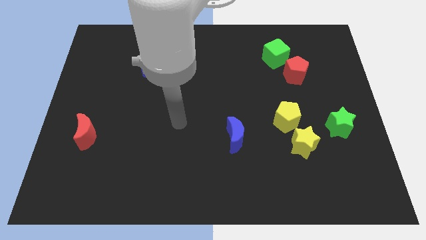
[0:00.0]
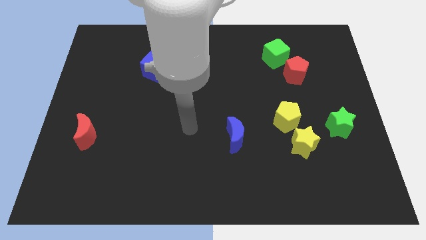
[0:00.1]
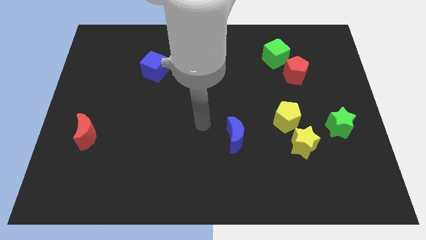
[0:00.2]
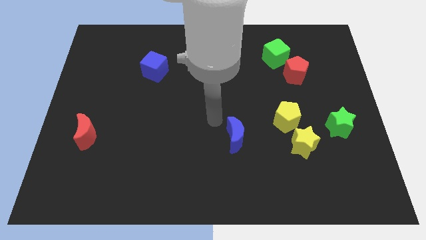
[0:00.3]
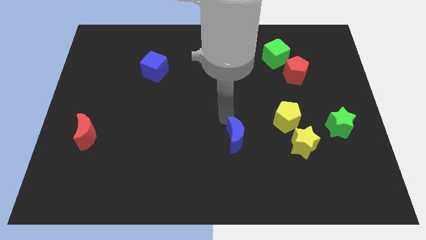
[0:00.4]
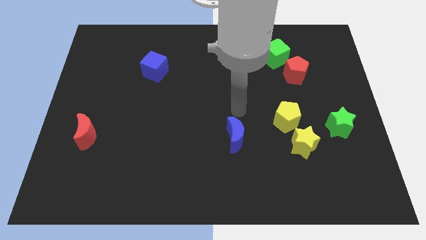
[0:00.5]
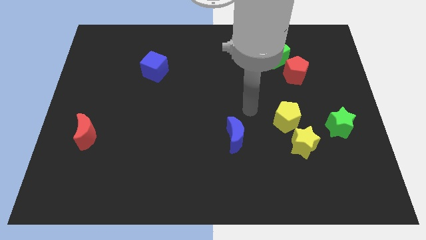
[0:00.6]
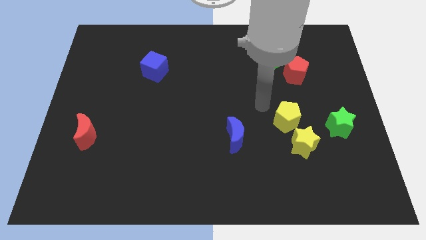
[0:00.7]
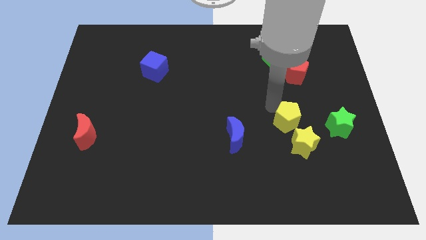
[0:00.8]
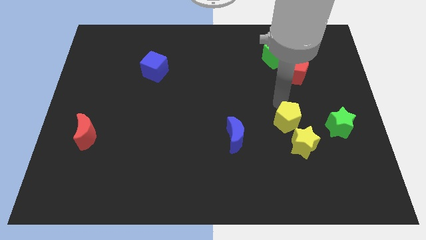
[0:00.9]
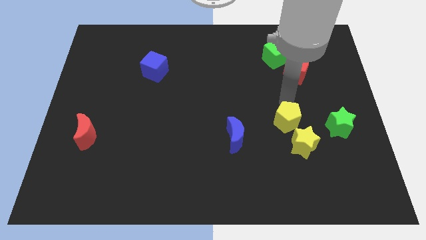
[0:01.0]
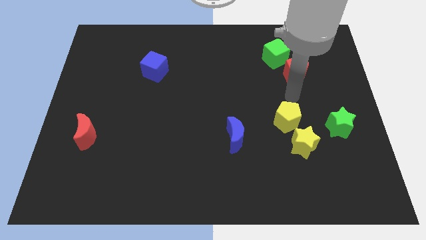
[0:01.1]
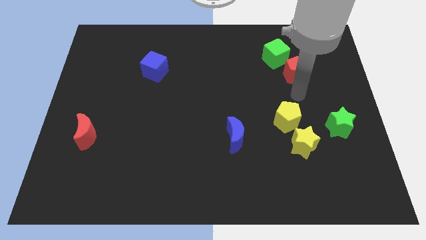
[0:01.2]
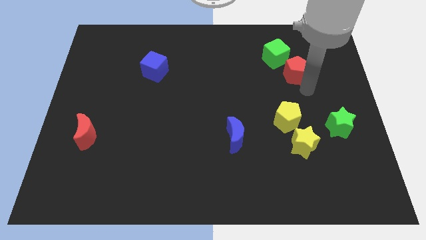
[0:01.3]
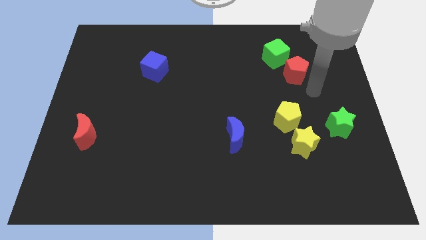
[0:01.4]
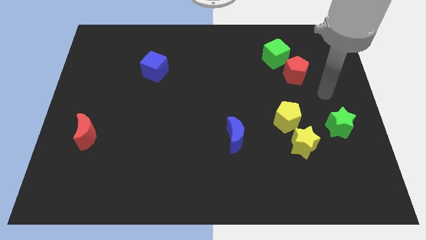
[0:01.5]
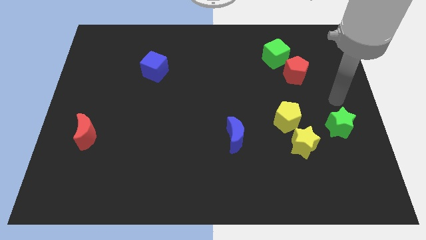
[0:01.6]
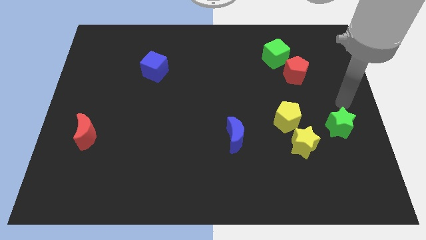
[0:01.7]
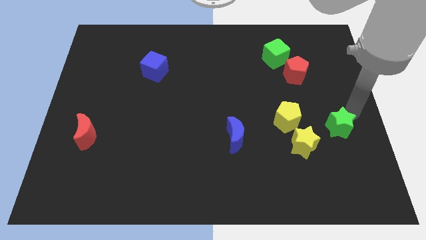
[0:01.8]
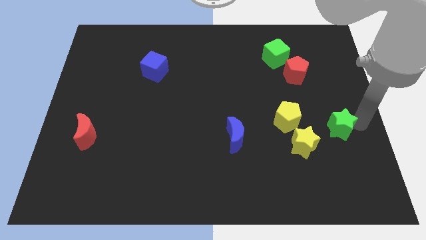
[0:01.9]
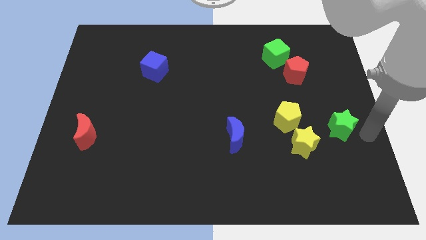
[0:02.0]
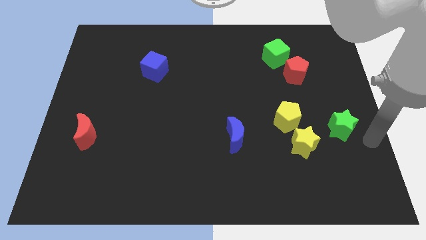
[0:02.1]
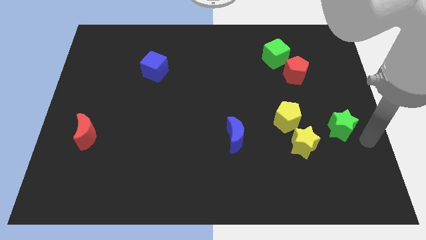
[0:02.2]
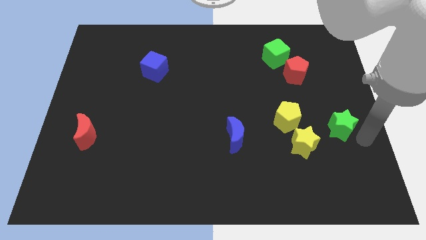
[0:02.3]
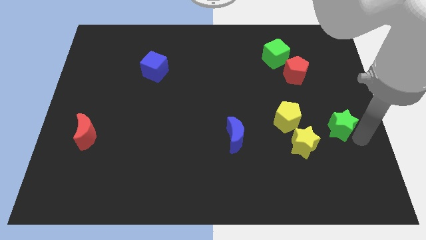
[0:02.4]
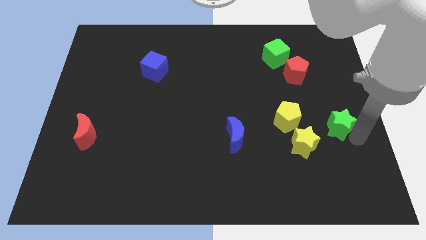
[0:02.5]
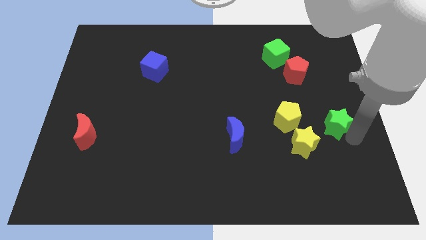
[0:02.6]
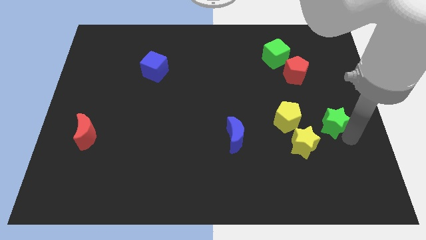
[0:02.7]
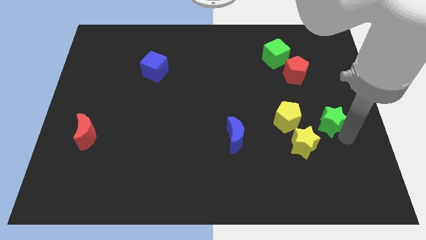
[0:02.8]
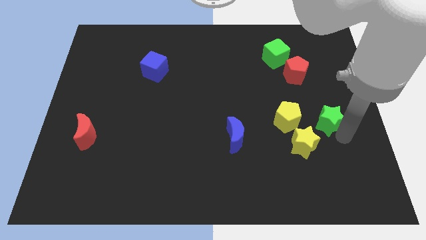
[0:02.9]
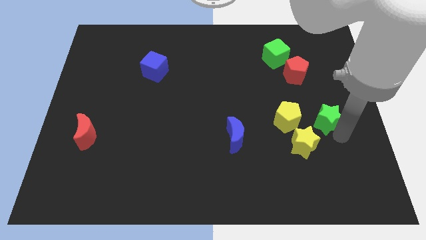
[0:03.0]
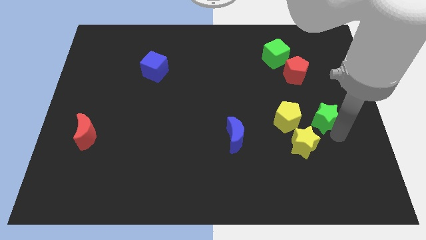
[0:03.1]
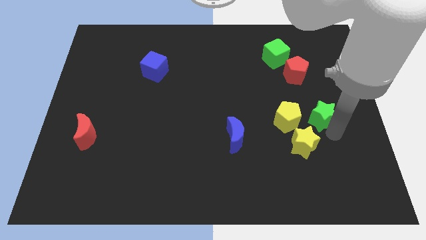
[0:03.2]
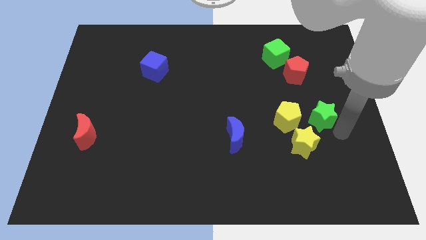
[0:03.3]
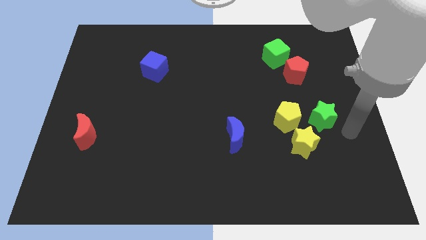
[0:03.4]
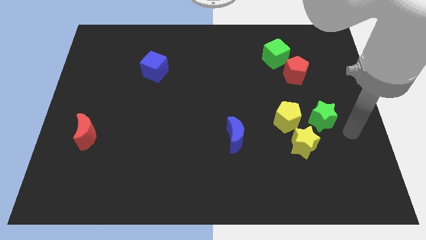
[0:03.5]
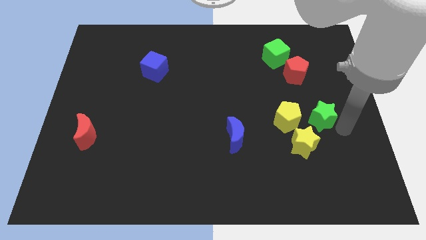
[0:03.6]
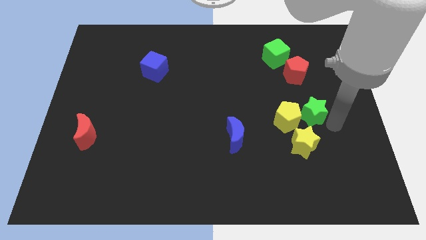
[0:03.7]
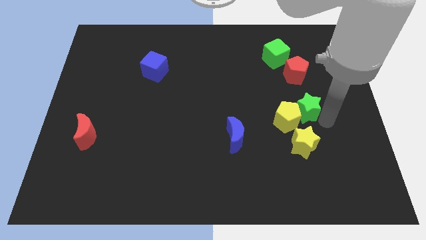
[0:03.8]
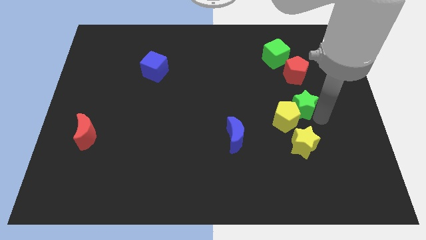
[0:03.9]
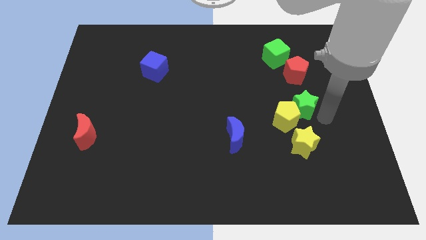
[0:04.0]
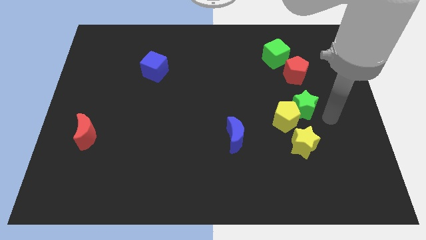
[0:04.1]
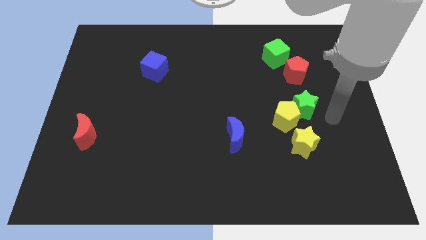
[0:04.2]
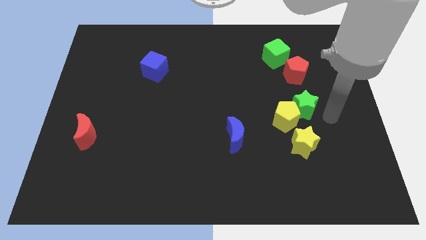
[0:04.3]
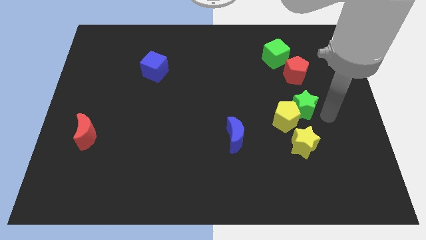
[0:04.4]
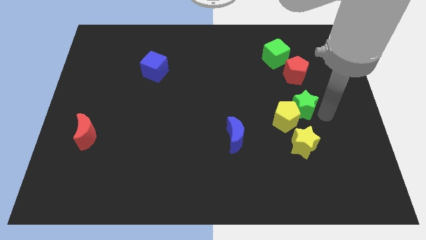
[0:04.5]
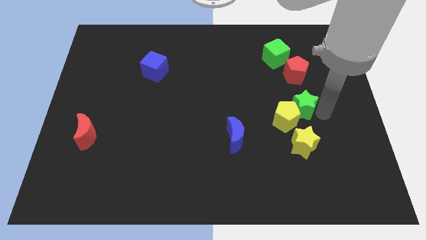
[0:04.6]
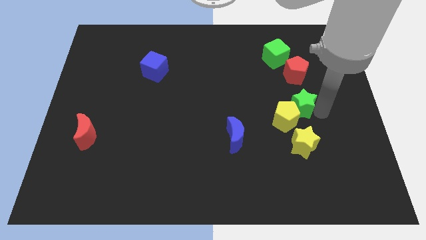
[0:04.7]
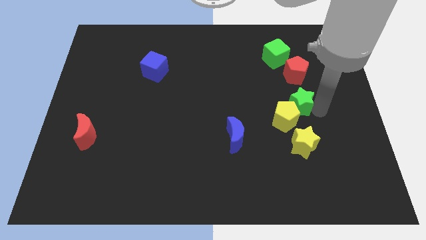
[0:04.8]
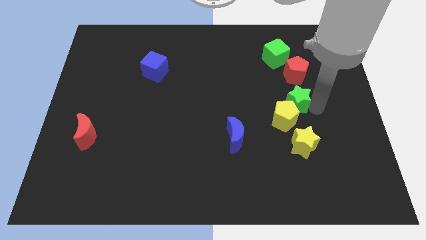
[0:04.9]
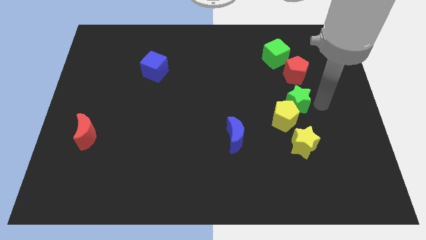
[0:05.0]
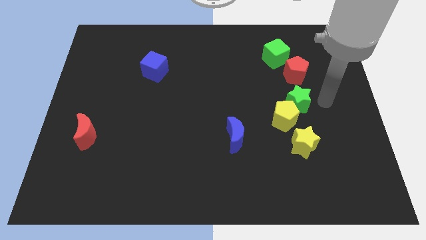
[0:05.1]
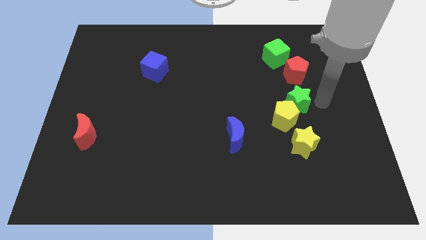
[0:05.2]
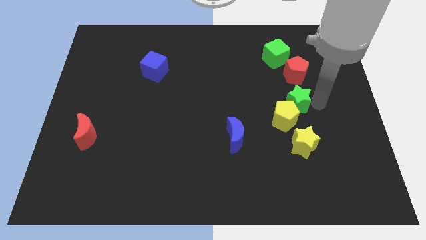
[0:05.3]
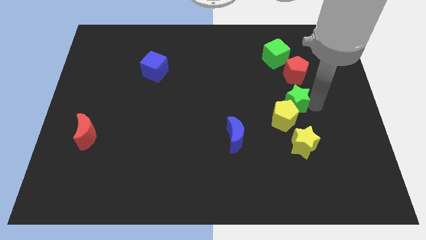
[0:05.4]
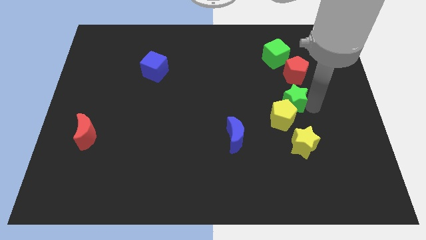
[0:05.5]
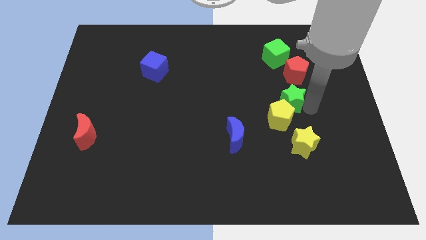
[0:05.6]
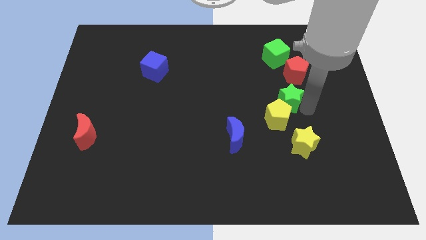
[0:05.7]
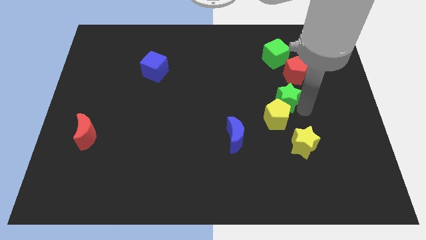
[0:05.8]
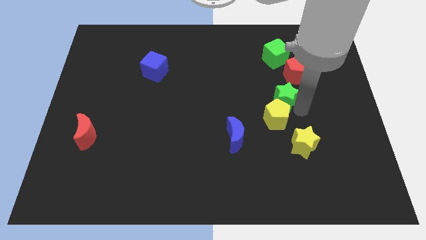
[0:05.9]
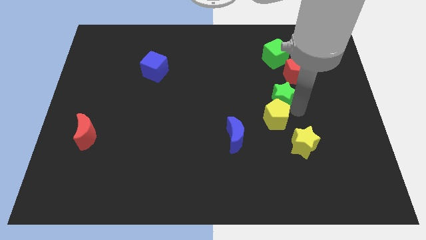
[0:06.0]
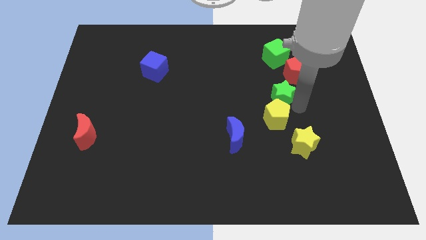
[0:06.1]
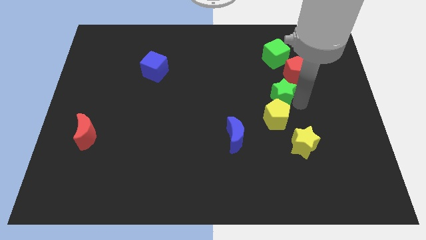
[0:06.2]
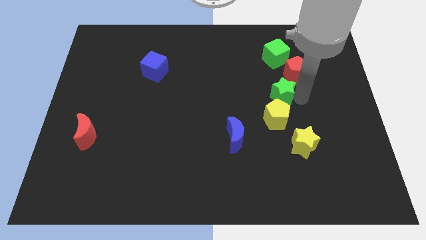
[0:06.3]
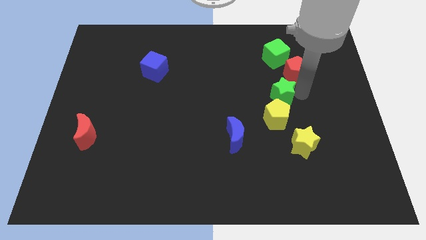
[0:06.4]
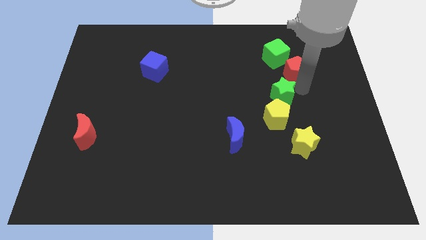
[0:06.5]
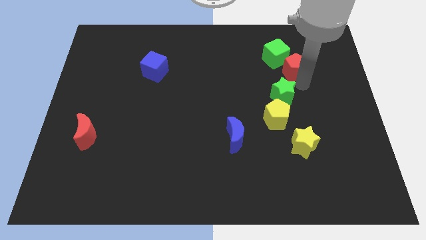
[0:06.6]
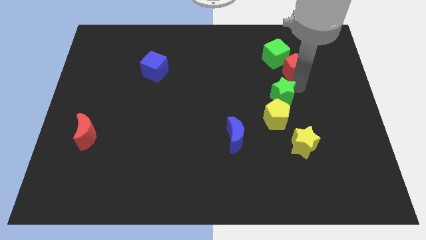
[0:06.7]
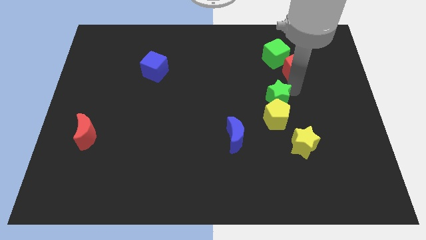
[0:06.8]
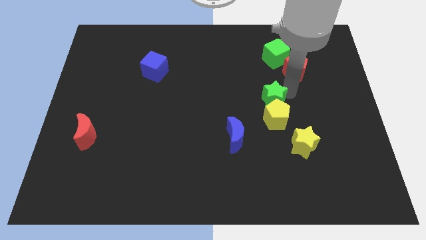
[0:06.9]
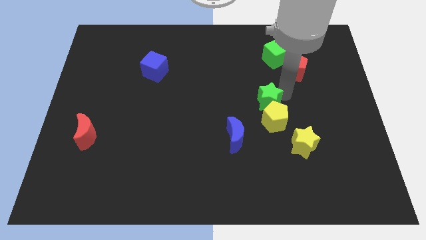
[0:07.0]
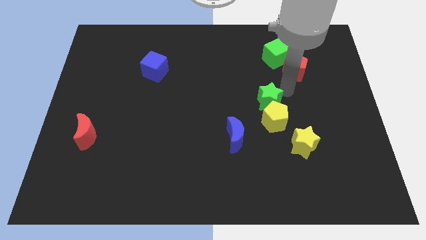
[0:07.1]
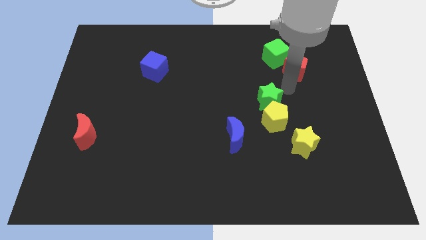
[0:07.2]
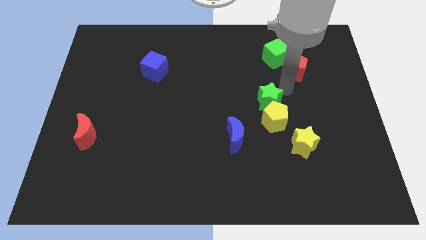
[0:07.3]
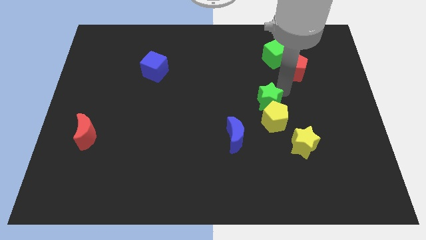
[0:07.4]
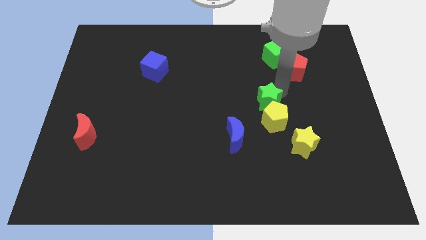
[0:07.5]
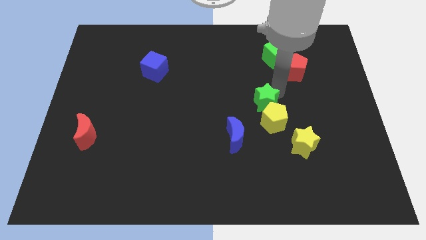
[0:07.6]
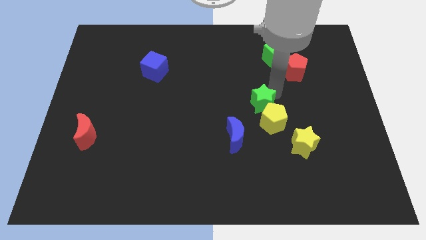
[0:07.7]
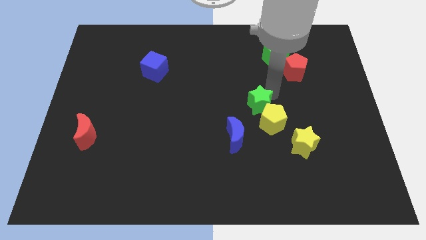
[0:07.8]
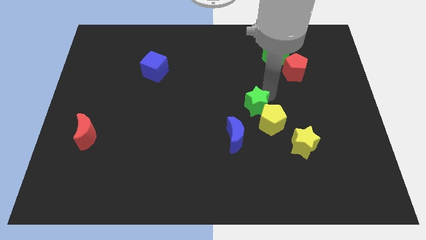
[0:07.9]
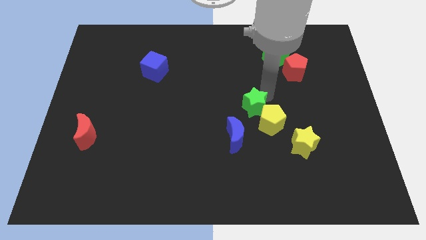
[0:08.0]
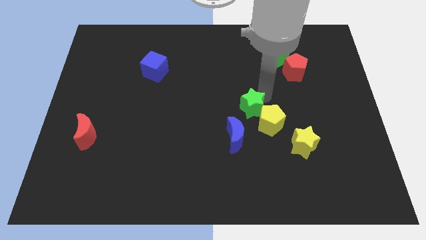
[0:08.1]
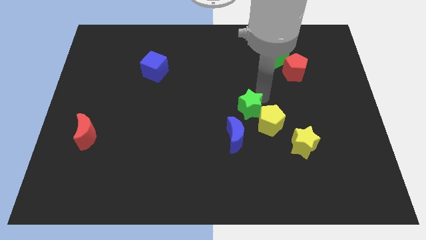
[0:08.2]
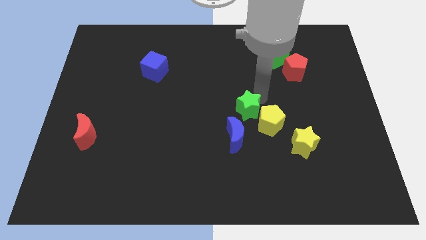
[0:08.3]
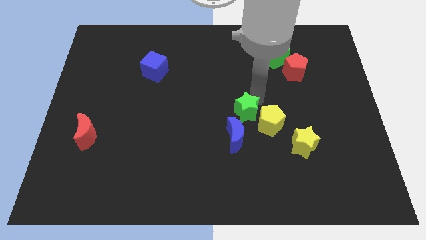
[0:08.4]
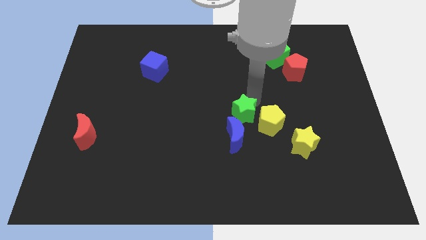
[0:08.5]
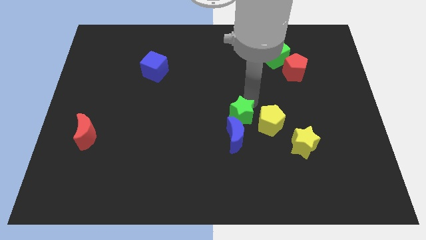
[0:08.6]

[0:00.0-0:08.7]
put the green star towards the blue moon
